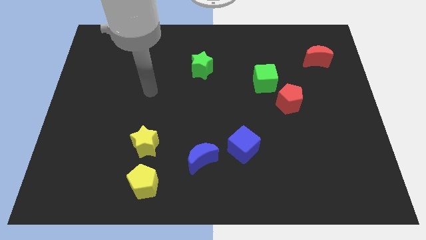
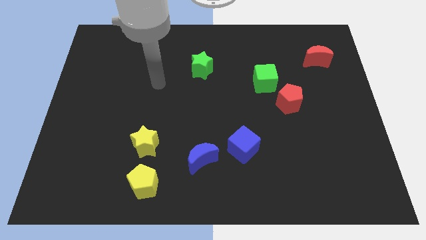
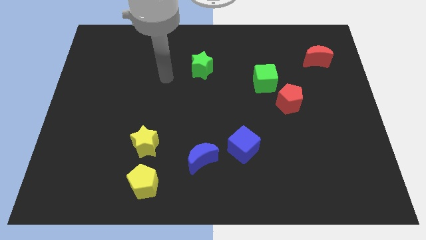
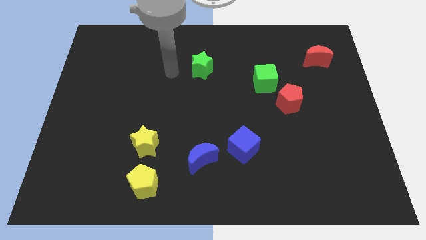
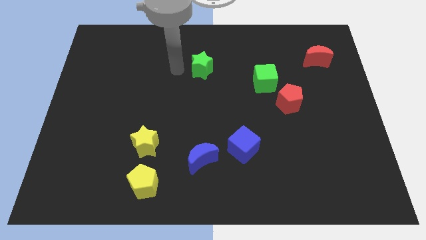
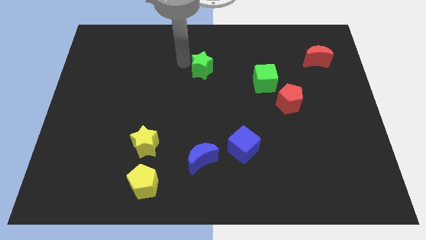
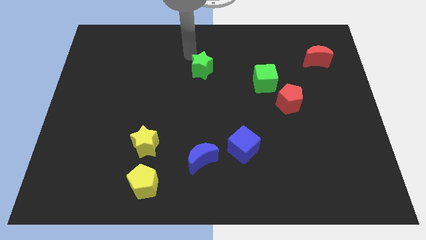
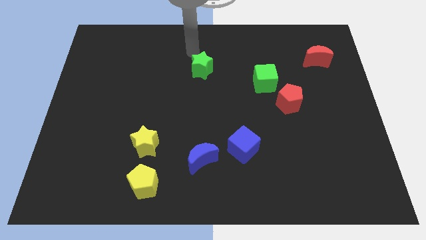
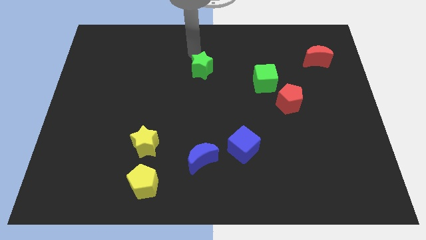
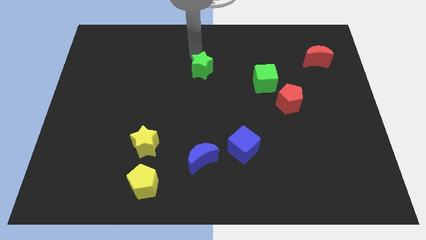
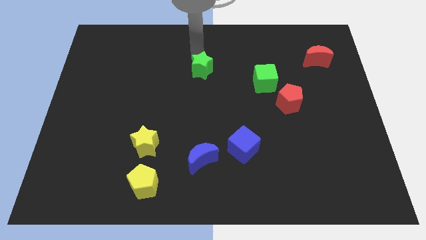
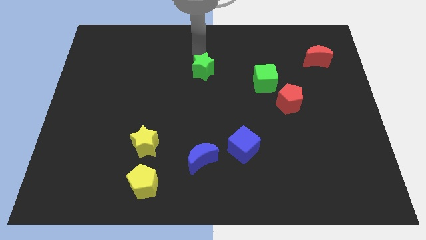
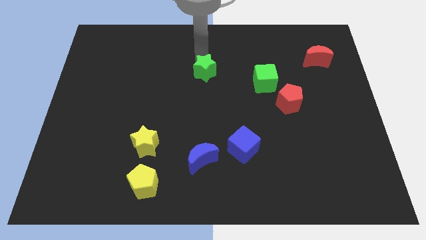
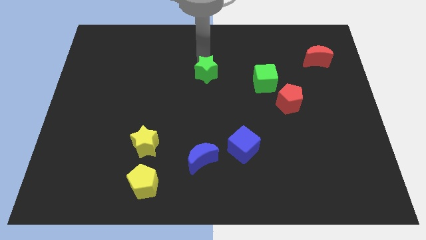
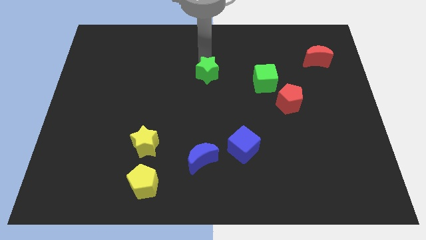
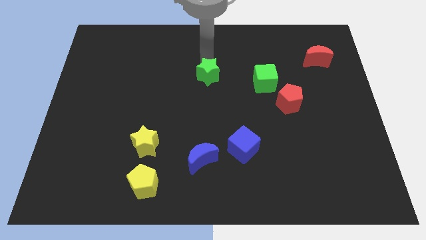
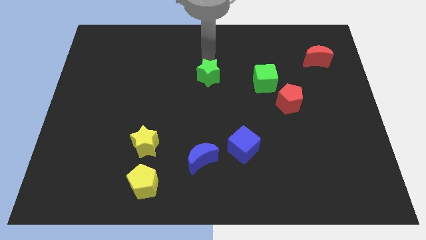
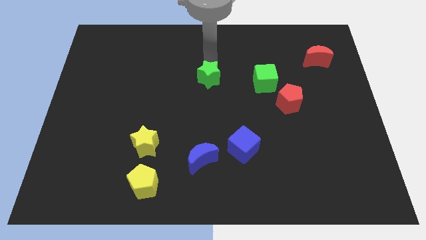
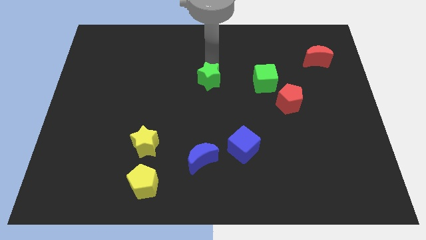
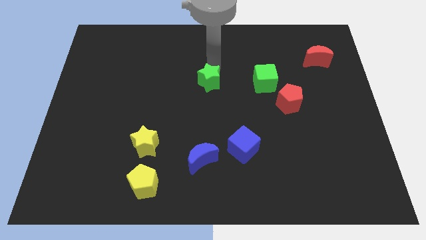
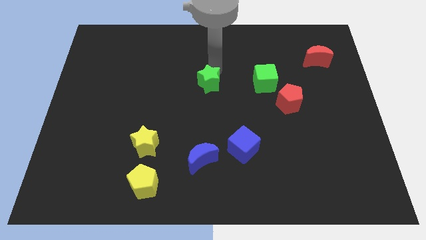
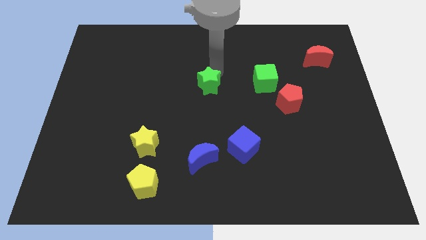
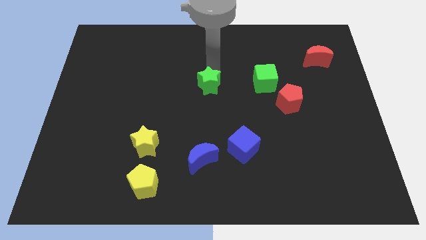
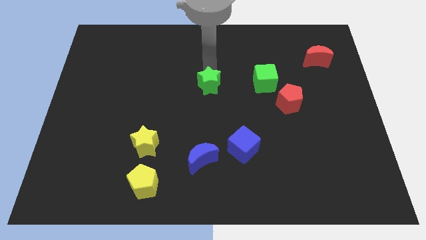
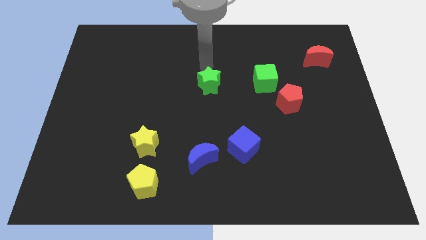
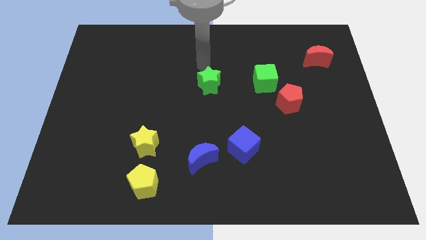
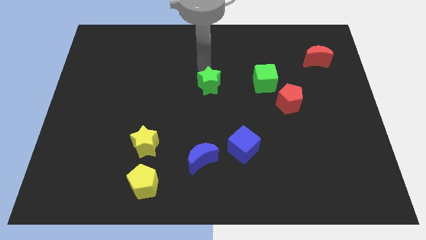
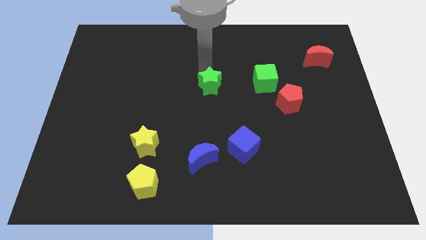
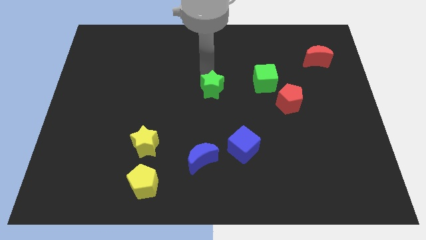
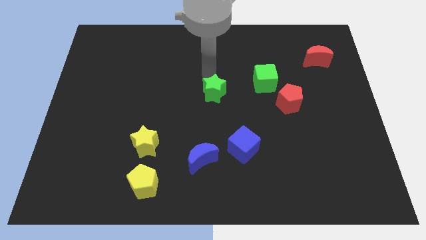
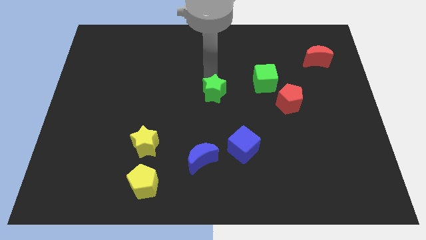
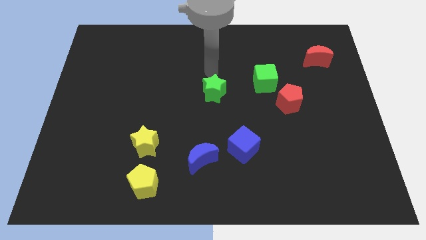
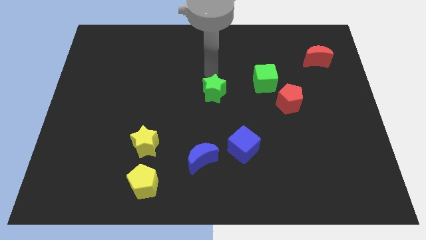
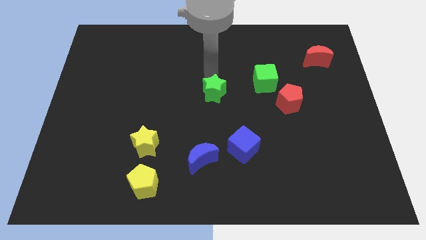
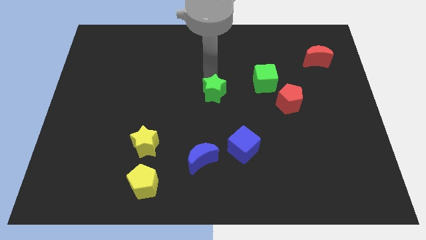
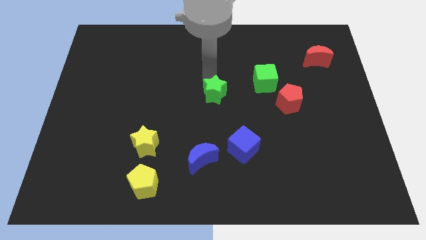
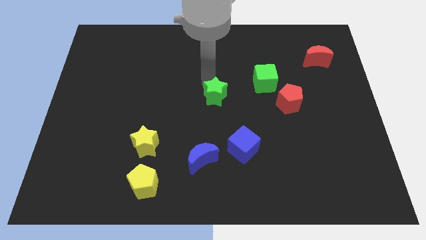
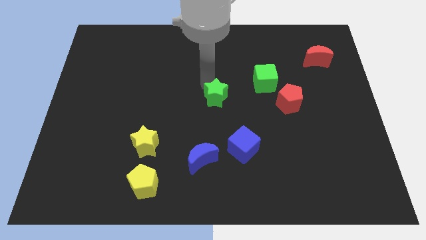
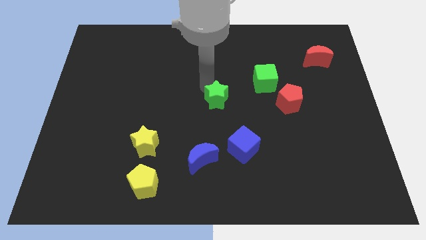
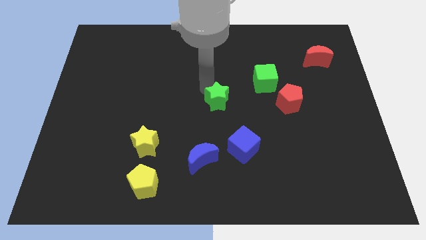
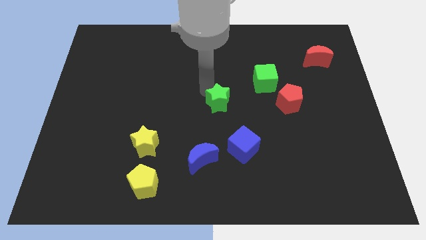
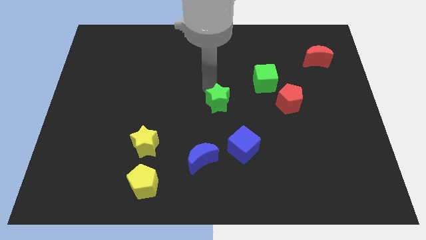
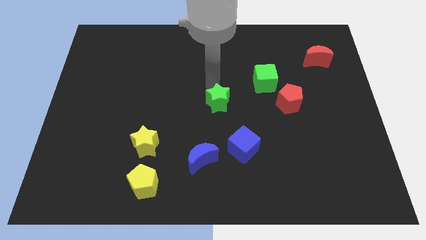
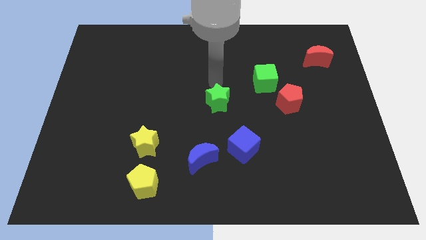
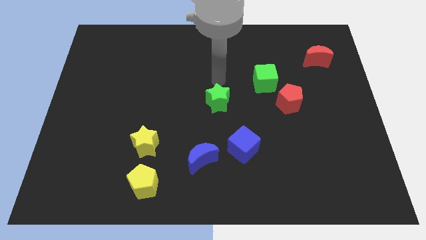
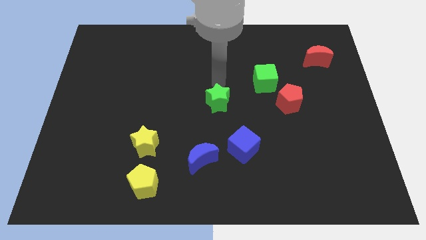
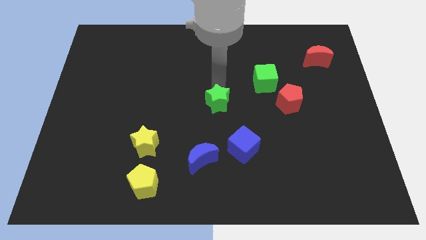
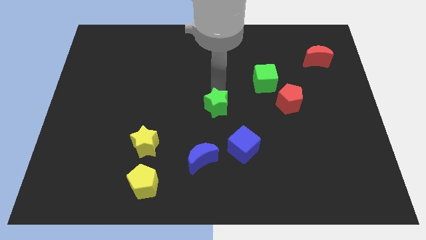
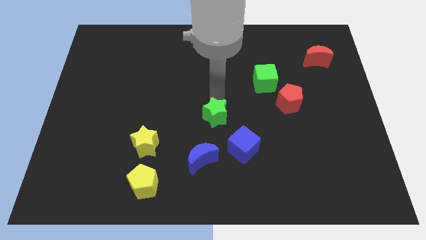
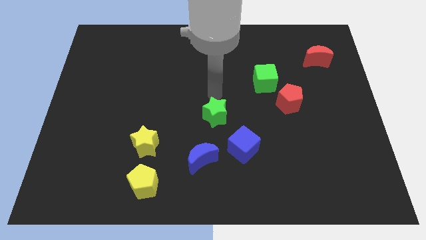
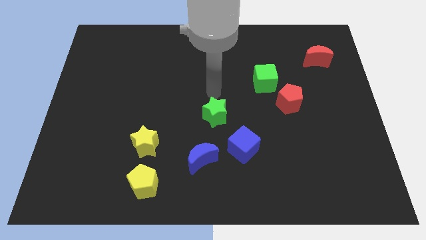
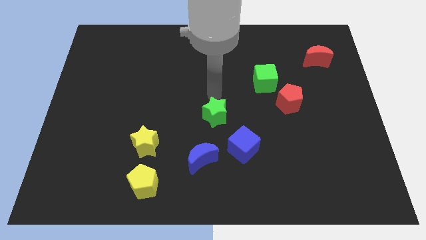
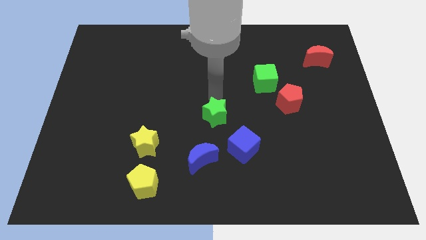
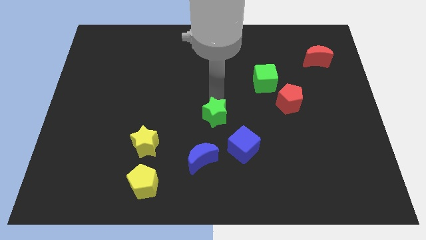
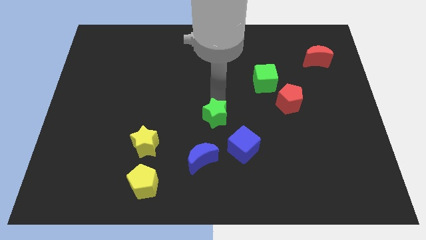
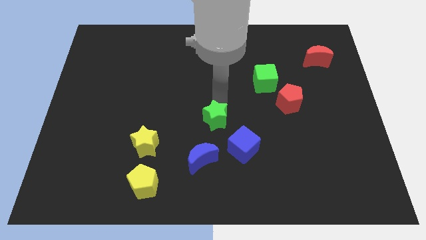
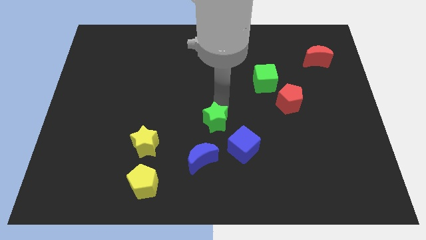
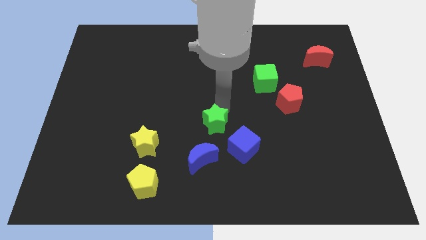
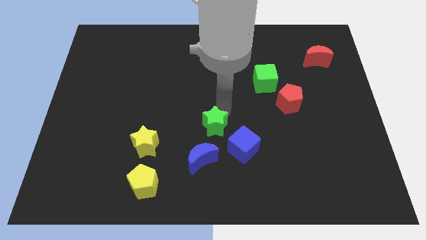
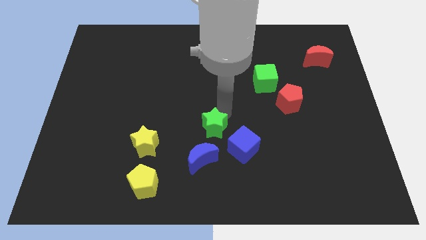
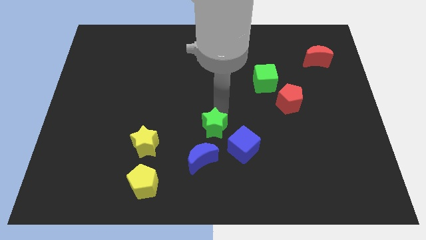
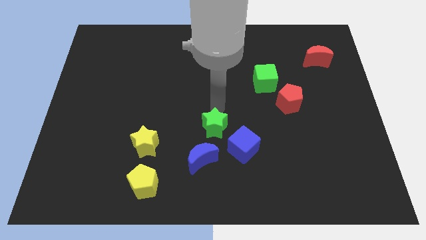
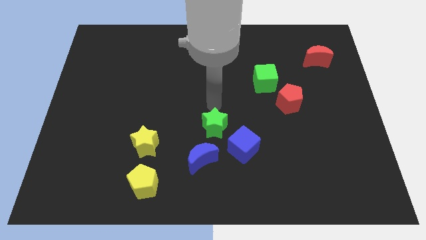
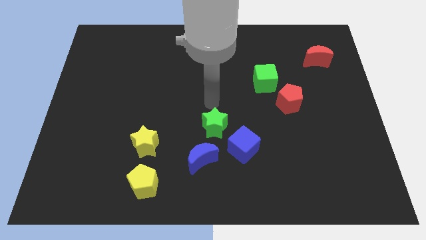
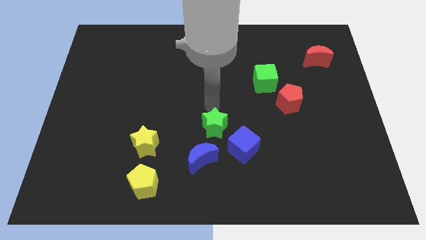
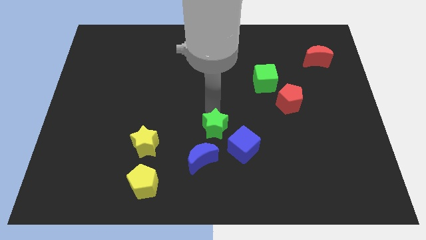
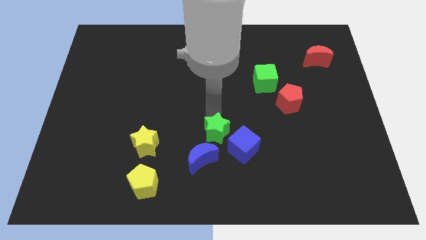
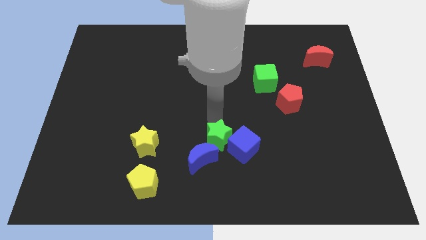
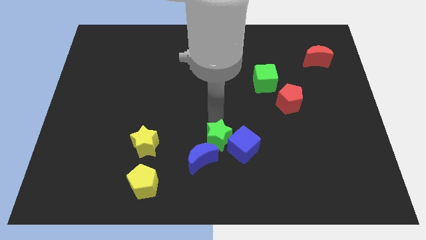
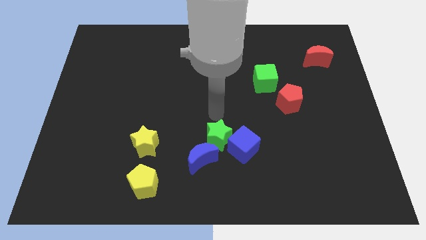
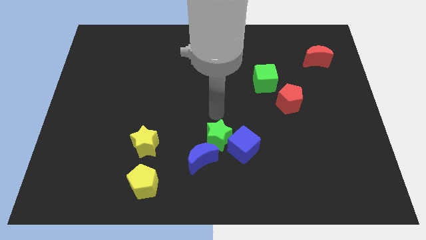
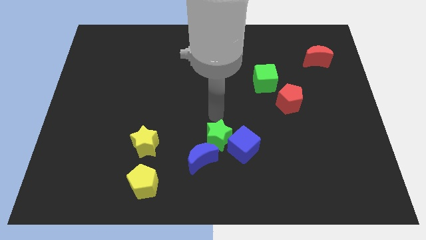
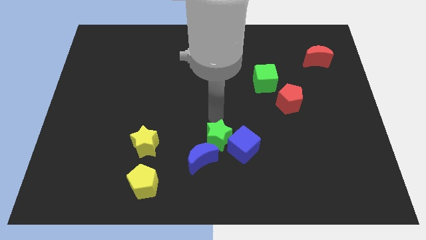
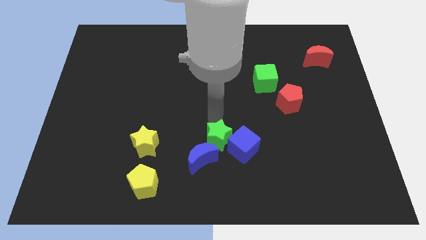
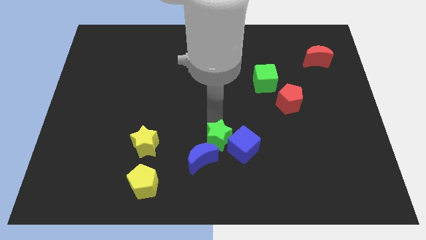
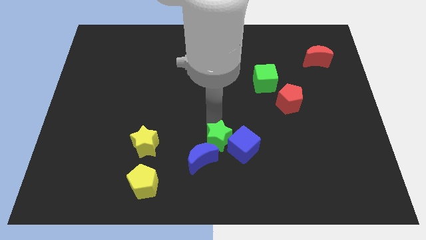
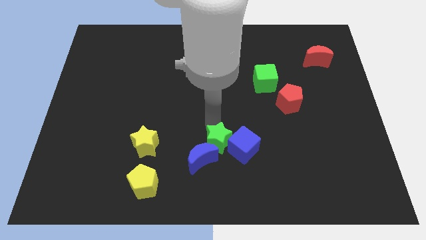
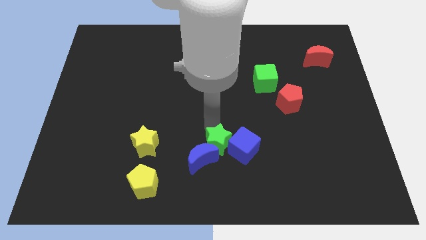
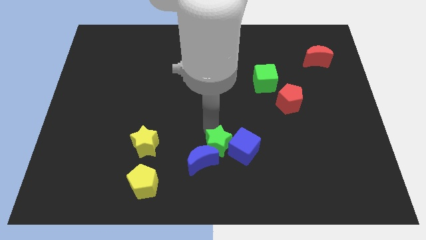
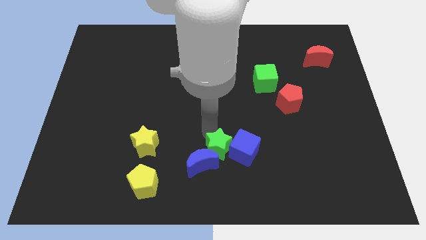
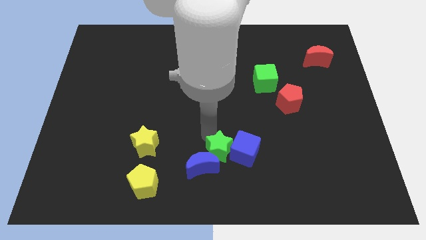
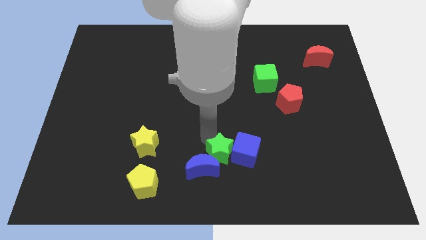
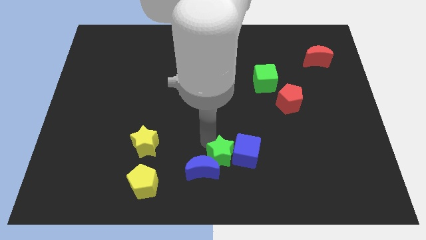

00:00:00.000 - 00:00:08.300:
move the green star to the bottom side
